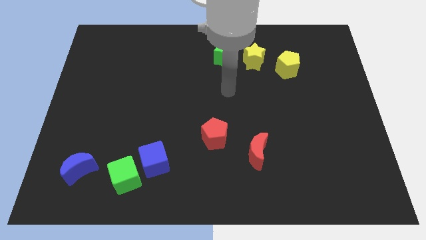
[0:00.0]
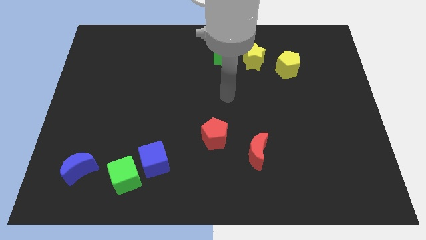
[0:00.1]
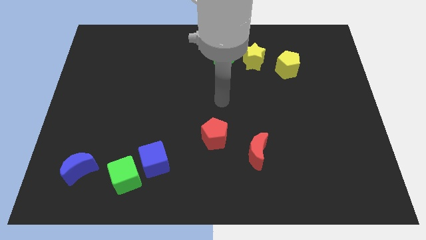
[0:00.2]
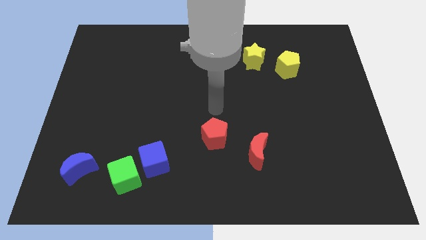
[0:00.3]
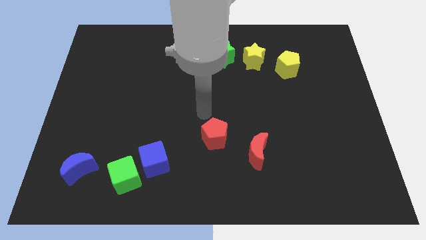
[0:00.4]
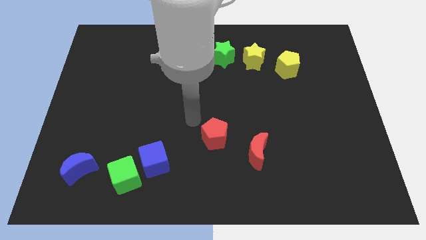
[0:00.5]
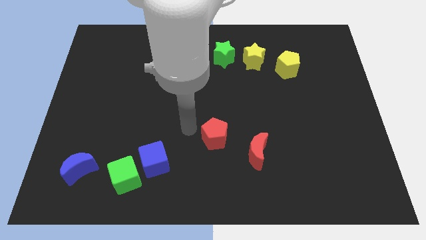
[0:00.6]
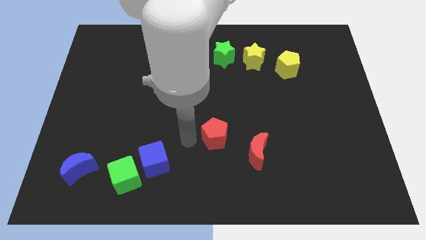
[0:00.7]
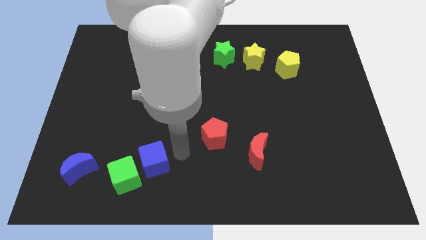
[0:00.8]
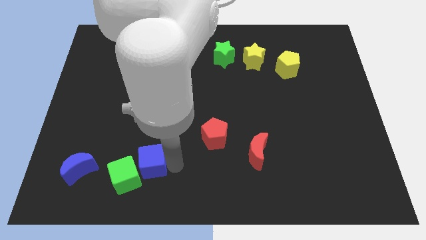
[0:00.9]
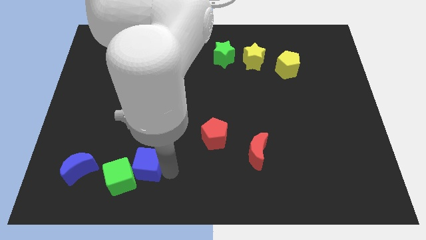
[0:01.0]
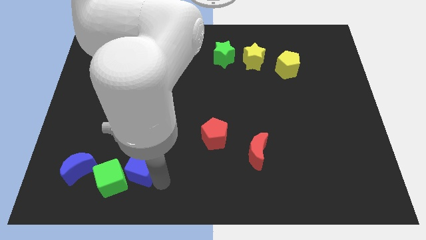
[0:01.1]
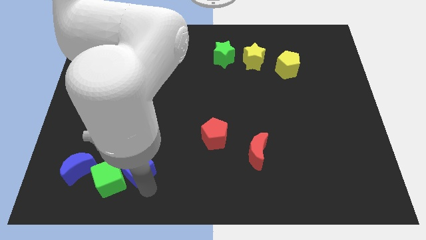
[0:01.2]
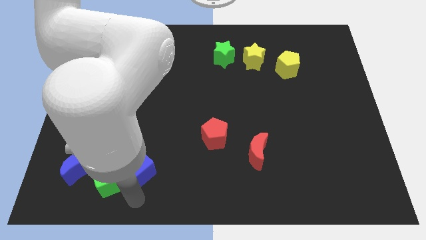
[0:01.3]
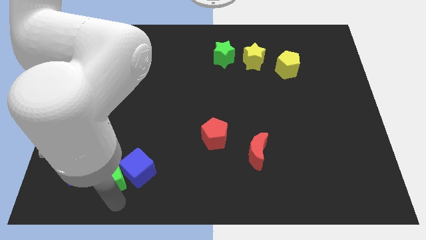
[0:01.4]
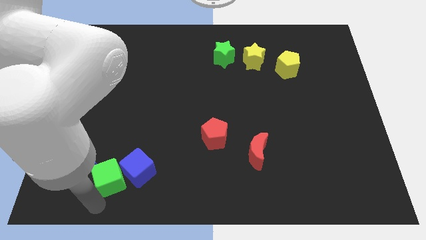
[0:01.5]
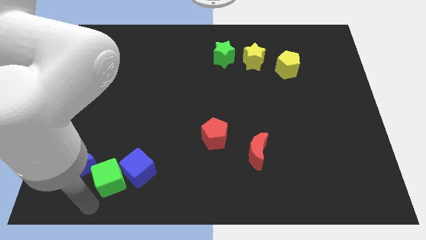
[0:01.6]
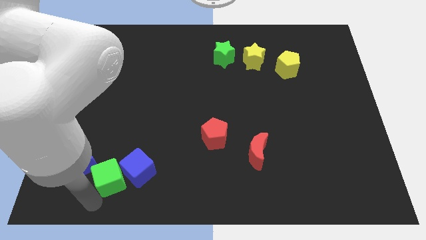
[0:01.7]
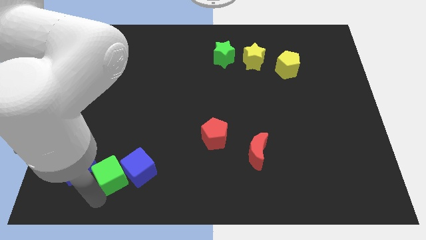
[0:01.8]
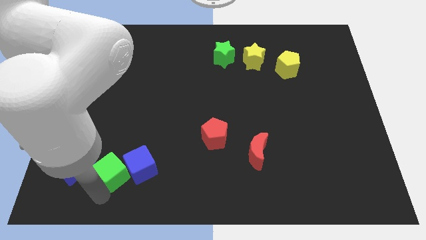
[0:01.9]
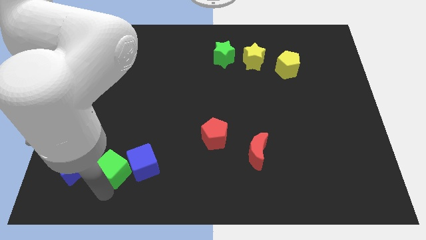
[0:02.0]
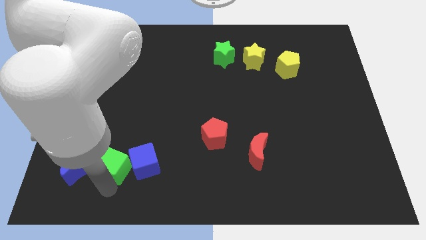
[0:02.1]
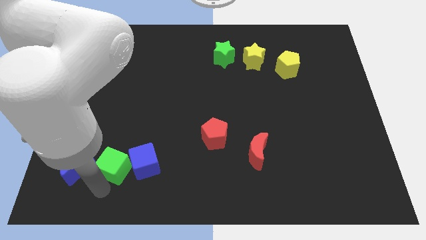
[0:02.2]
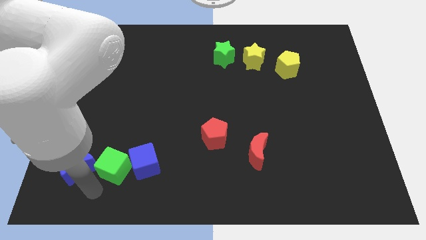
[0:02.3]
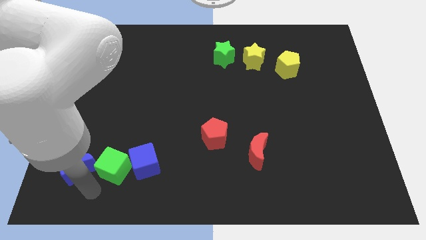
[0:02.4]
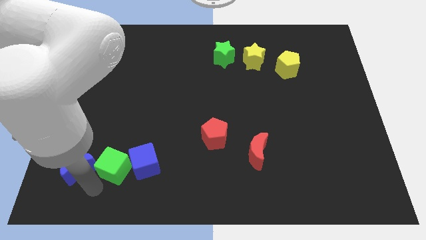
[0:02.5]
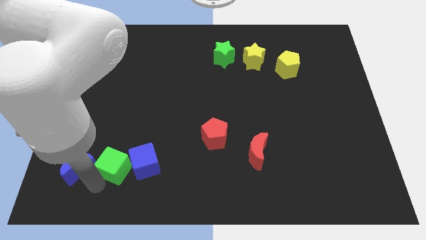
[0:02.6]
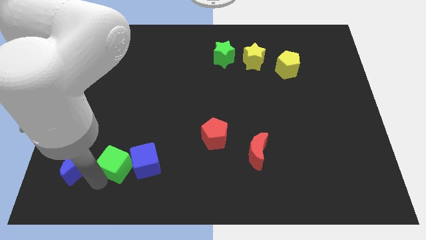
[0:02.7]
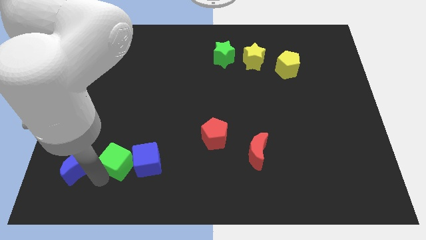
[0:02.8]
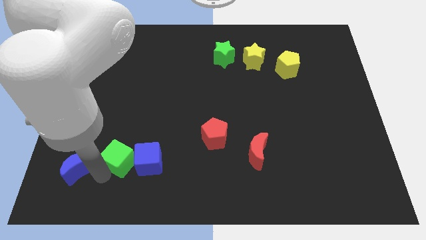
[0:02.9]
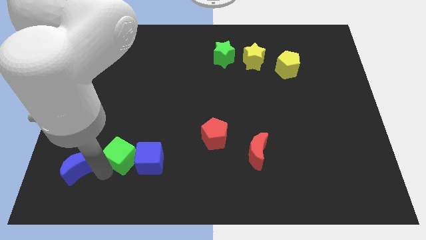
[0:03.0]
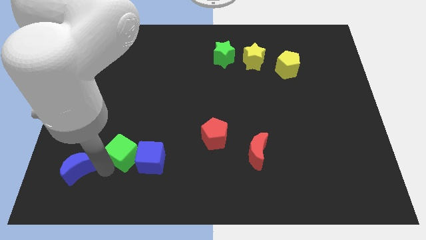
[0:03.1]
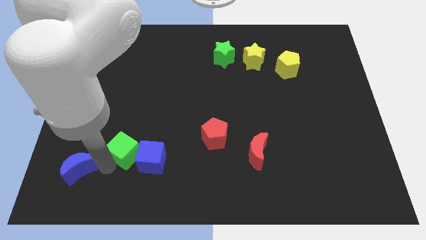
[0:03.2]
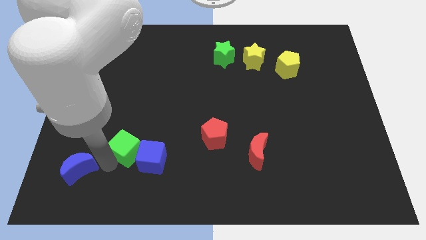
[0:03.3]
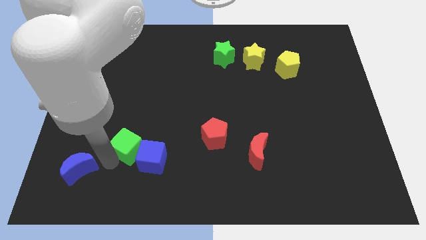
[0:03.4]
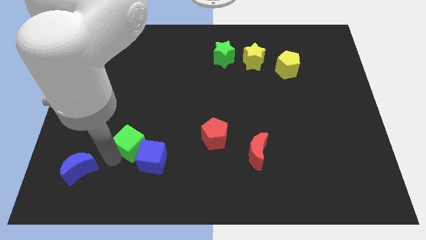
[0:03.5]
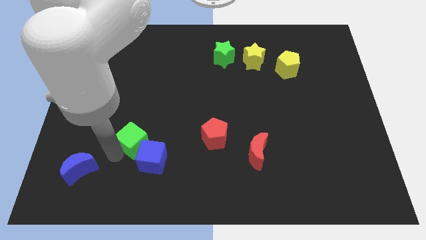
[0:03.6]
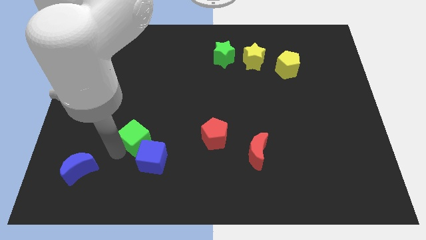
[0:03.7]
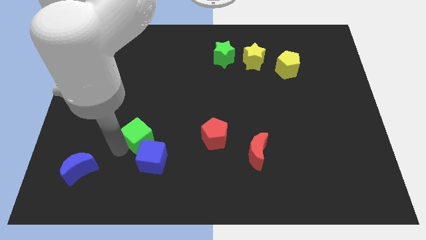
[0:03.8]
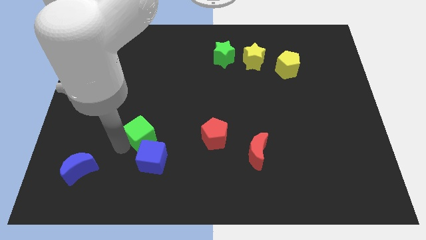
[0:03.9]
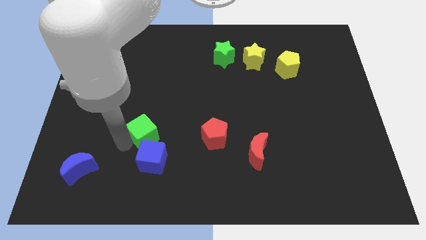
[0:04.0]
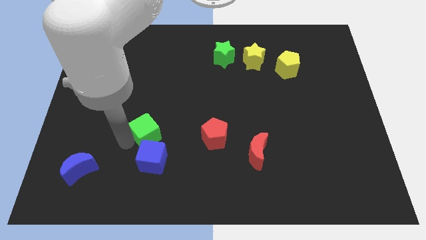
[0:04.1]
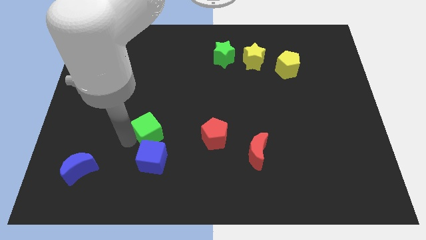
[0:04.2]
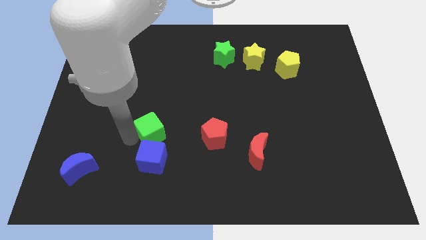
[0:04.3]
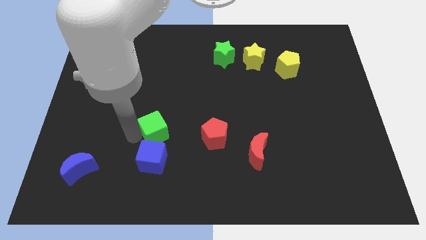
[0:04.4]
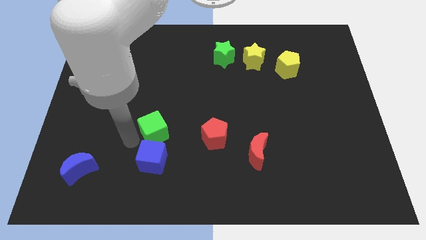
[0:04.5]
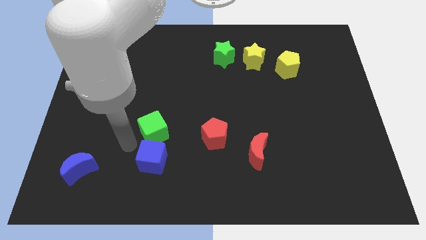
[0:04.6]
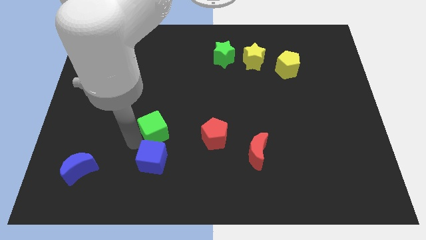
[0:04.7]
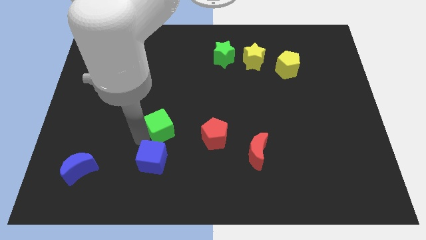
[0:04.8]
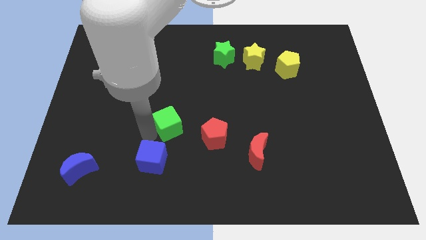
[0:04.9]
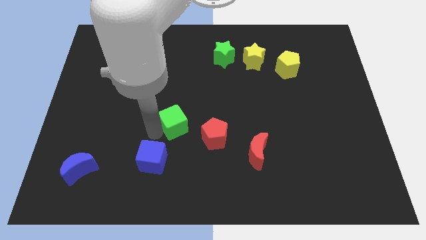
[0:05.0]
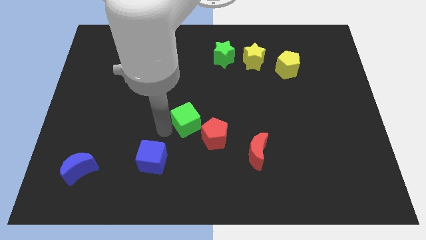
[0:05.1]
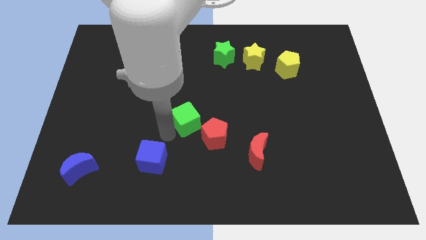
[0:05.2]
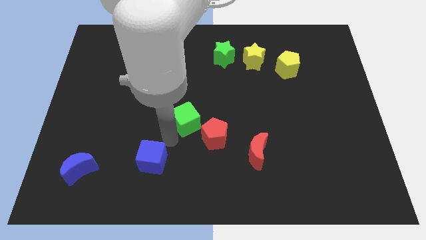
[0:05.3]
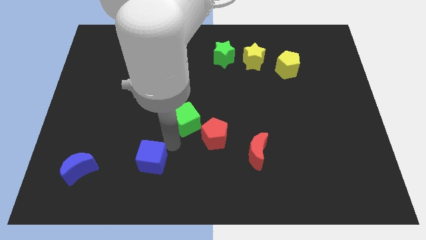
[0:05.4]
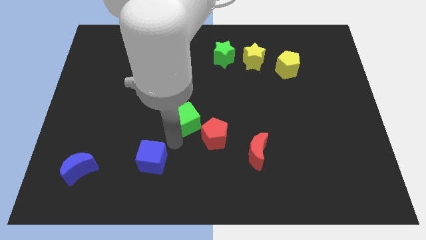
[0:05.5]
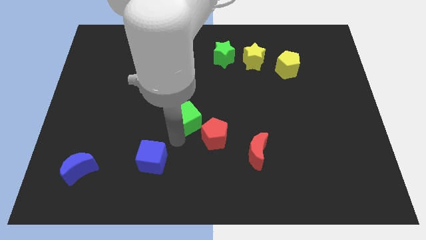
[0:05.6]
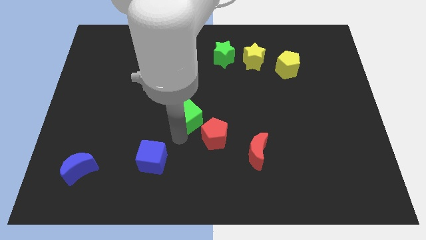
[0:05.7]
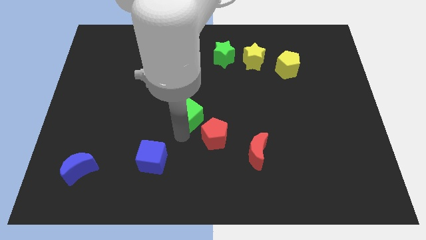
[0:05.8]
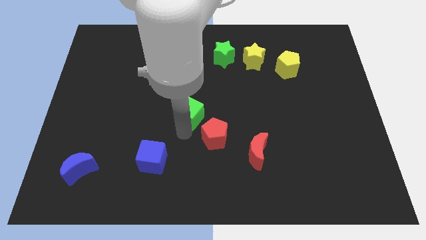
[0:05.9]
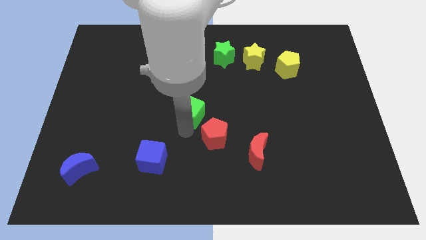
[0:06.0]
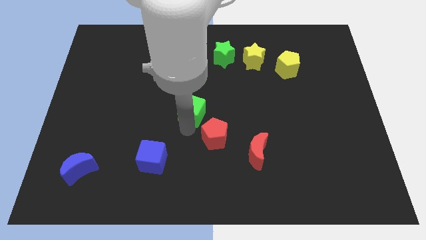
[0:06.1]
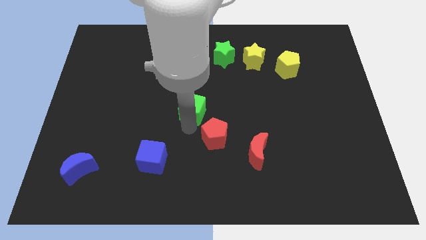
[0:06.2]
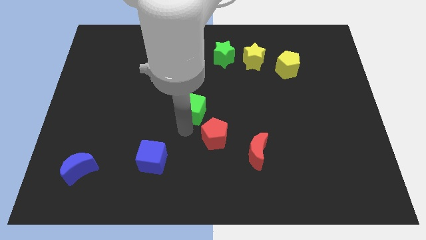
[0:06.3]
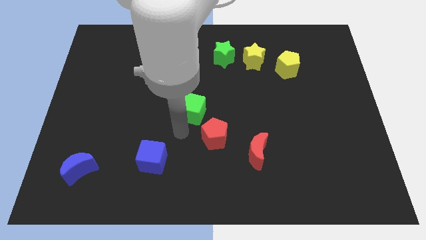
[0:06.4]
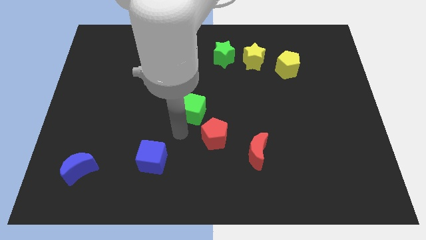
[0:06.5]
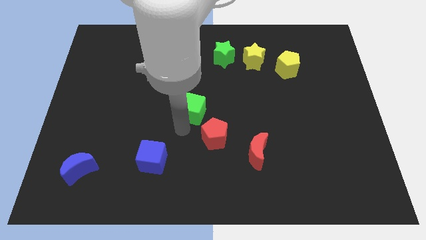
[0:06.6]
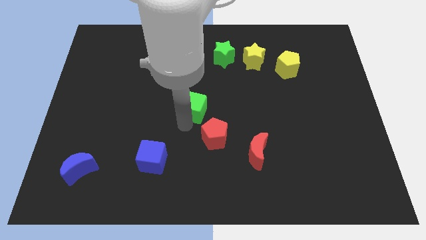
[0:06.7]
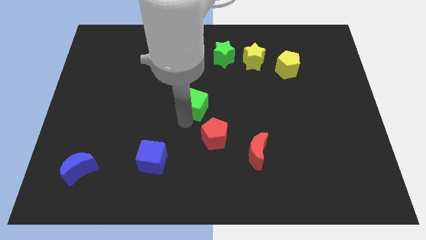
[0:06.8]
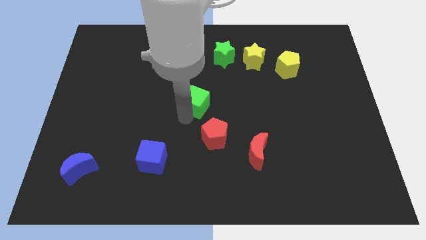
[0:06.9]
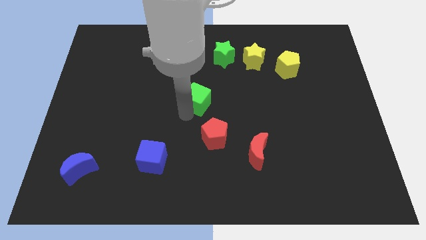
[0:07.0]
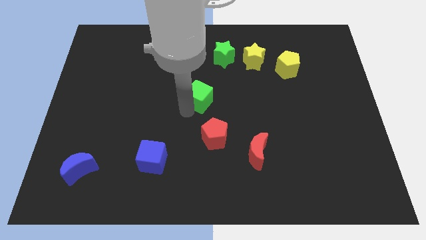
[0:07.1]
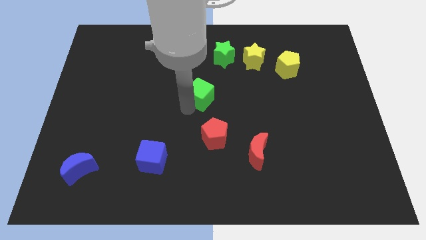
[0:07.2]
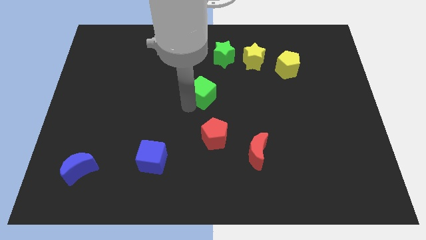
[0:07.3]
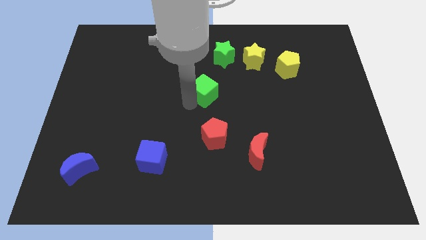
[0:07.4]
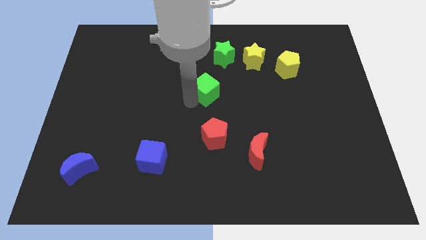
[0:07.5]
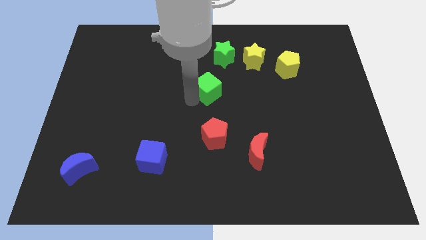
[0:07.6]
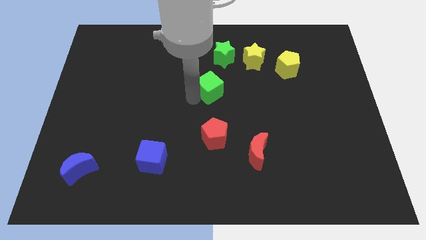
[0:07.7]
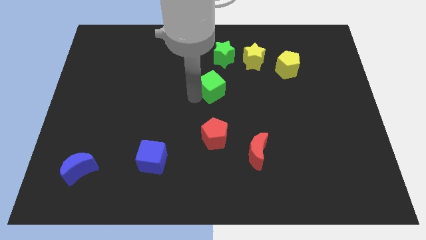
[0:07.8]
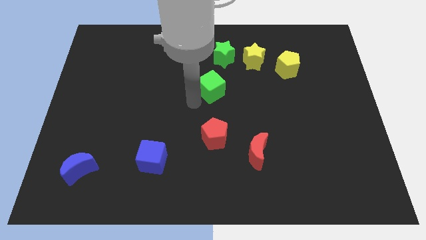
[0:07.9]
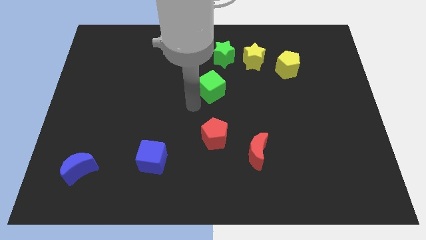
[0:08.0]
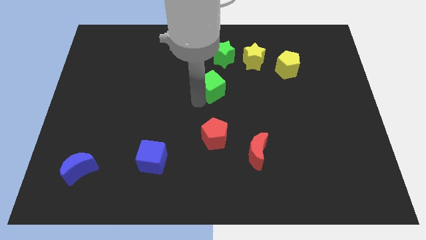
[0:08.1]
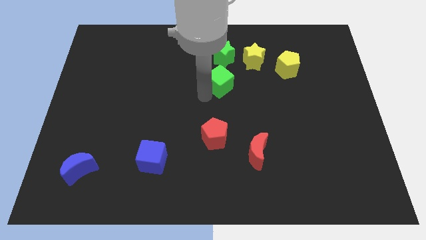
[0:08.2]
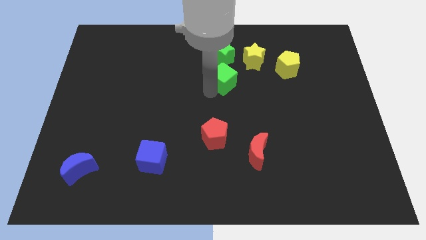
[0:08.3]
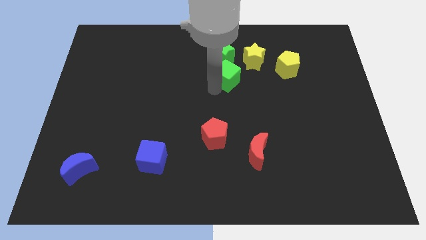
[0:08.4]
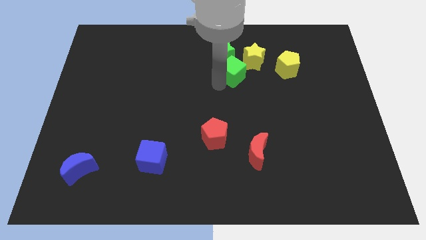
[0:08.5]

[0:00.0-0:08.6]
put the green cube left of the yellow pentagon
